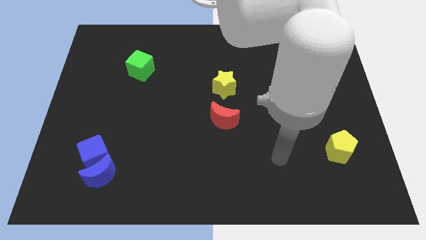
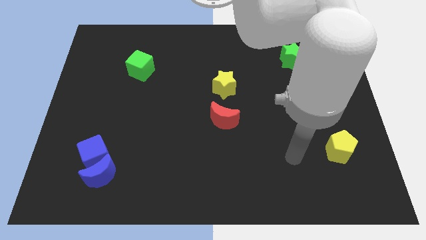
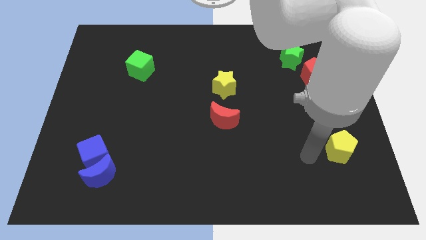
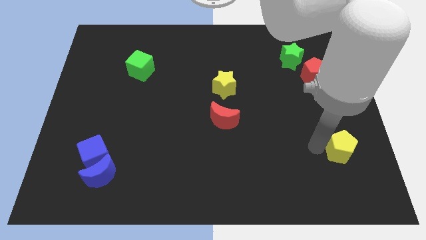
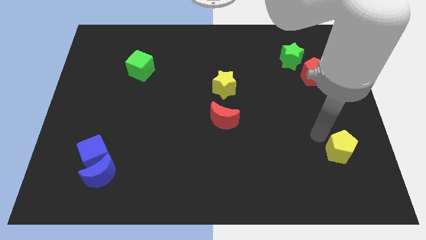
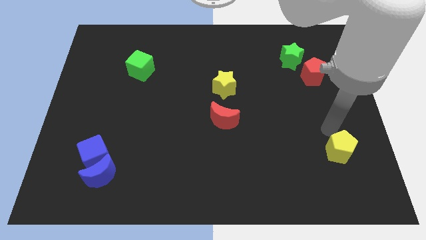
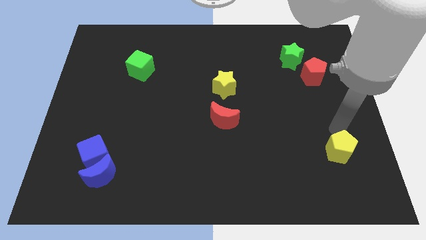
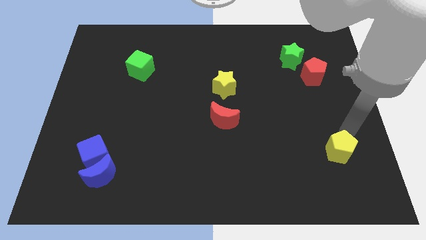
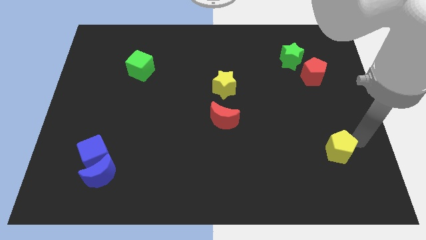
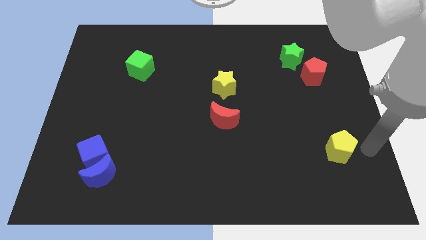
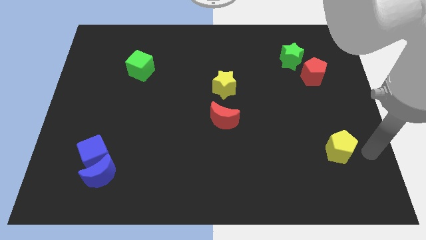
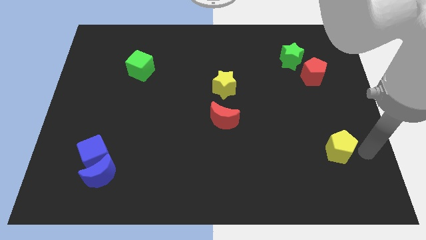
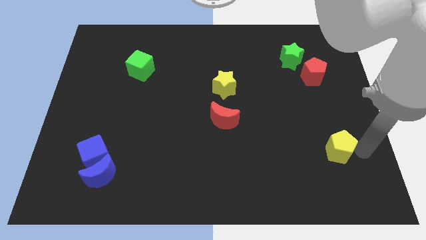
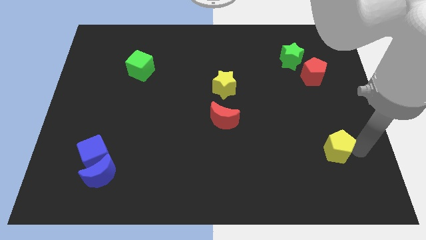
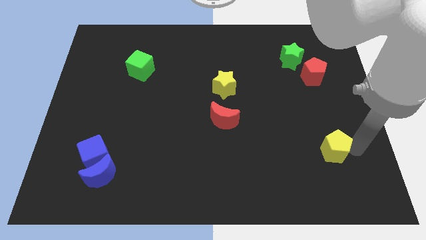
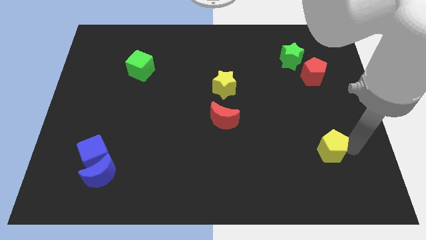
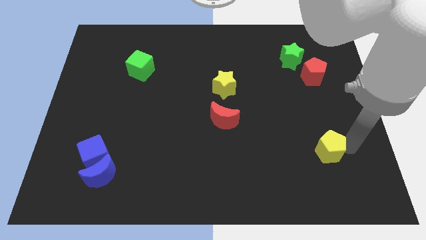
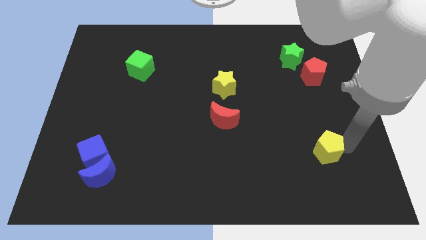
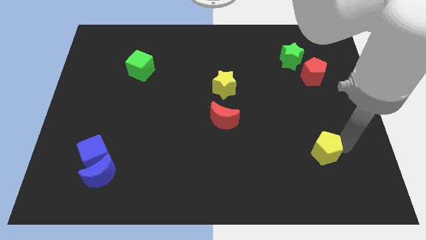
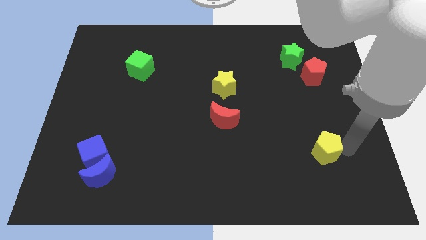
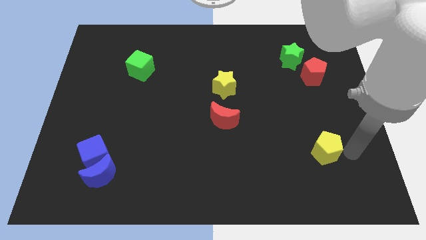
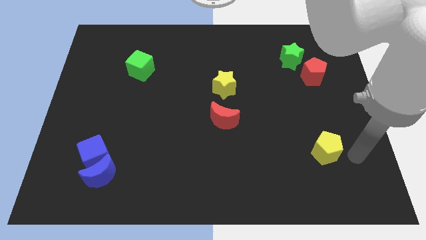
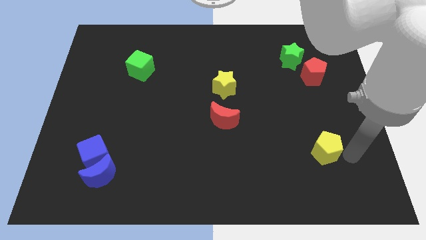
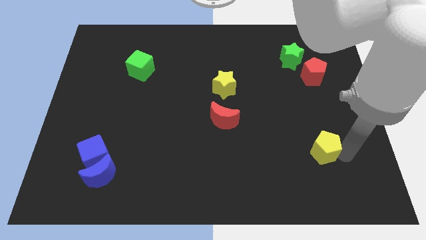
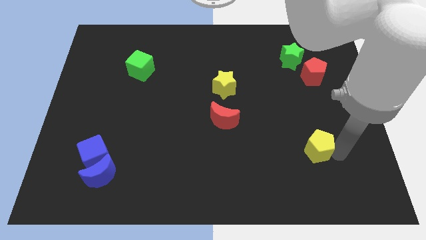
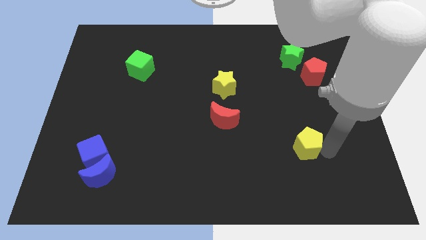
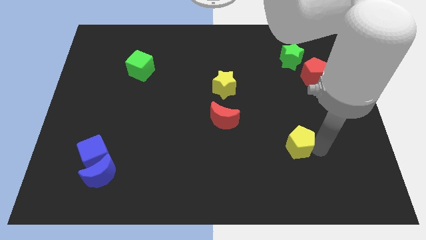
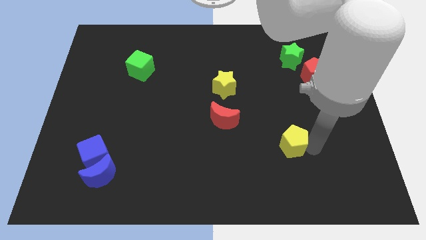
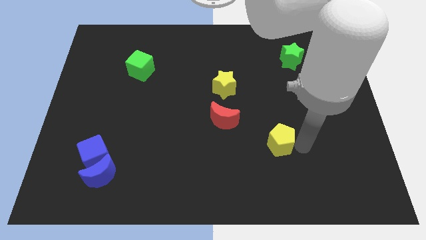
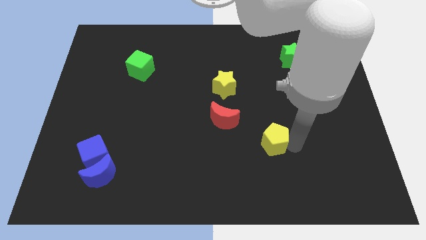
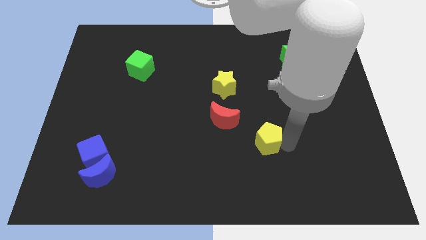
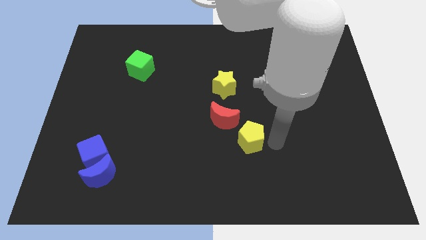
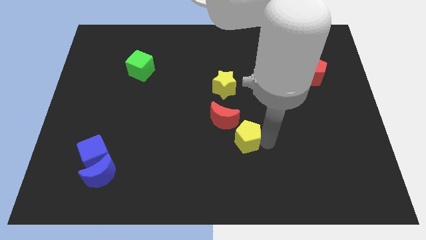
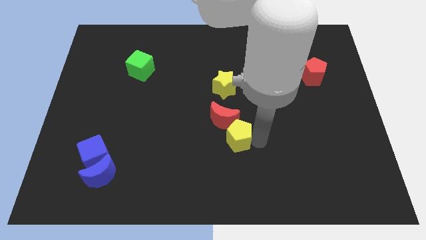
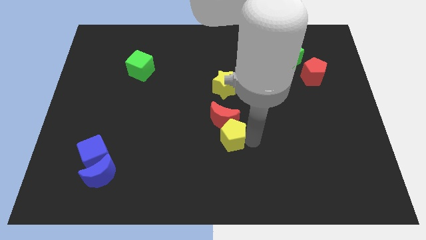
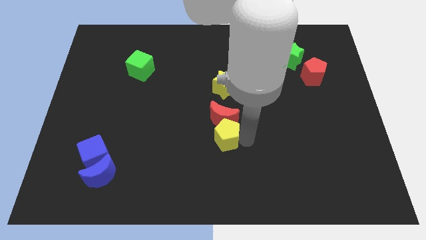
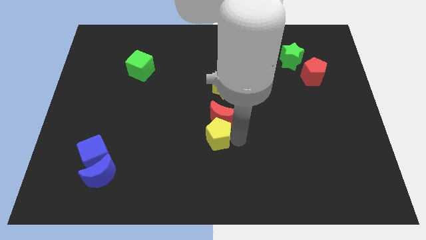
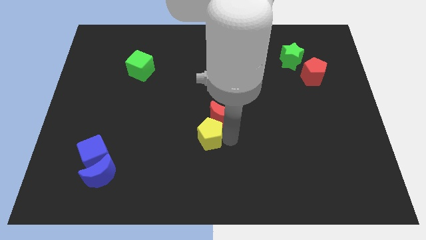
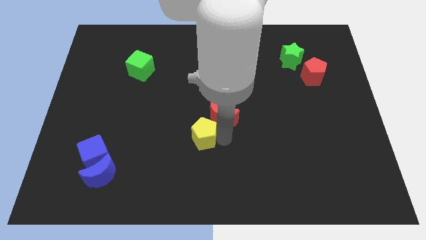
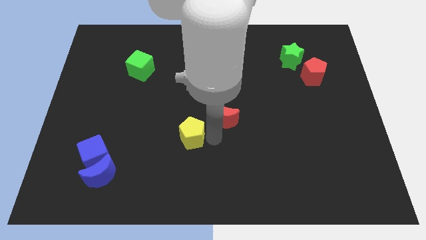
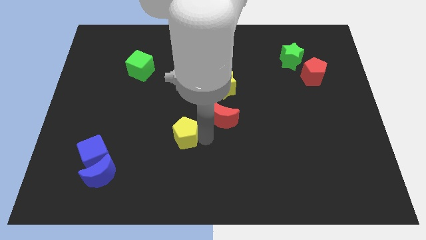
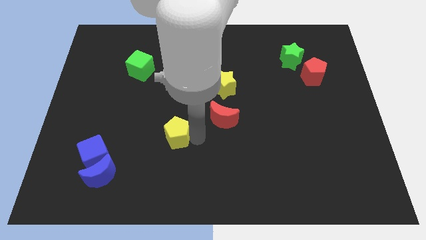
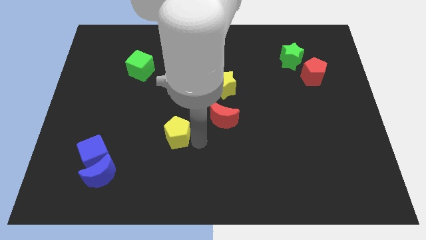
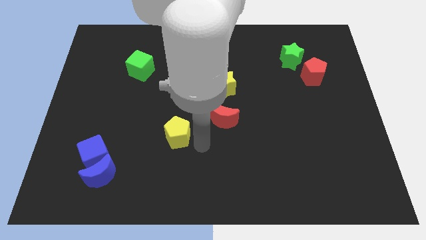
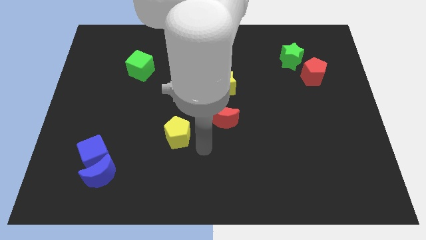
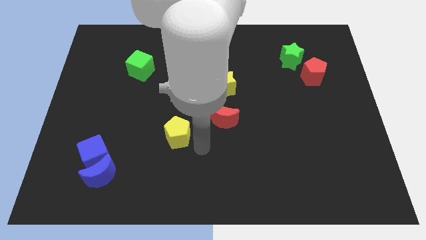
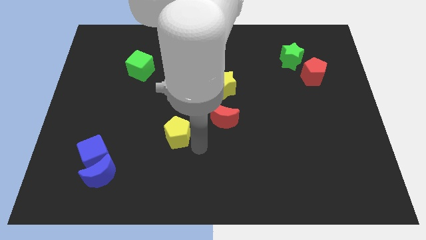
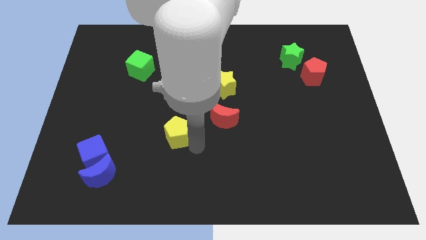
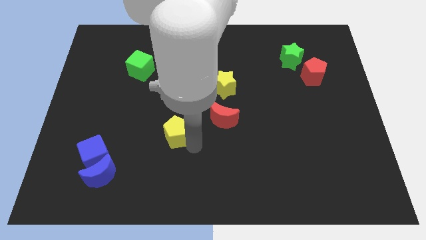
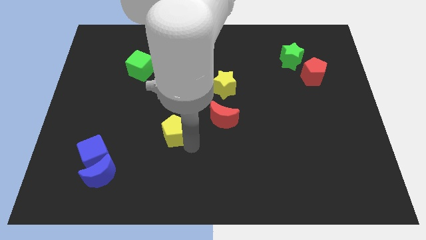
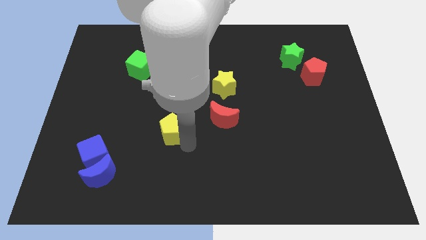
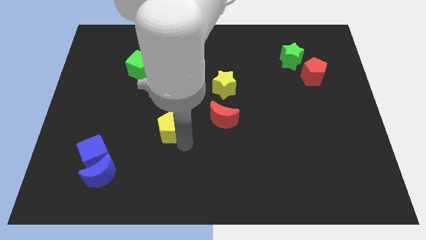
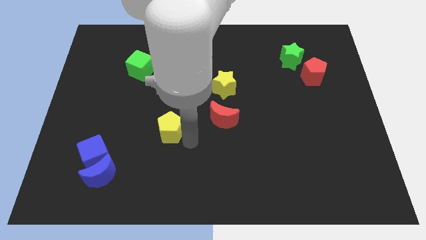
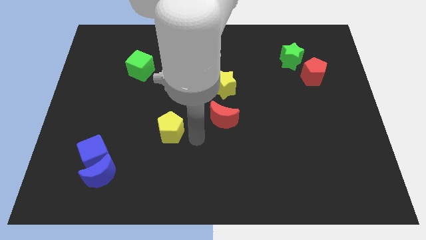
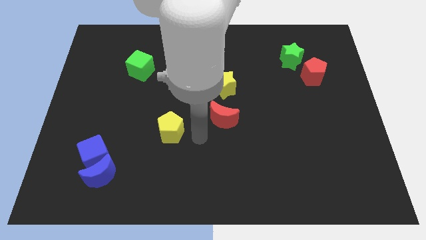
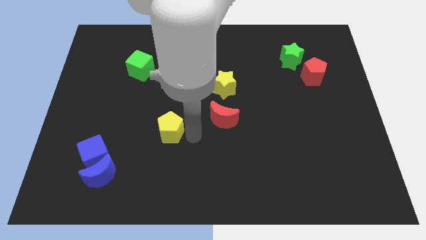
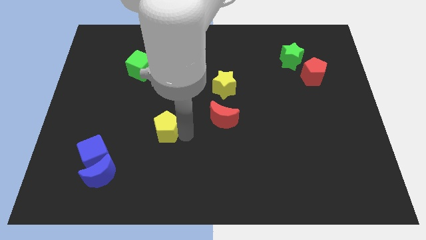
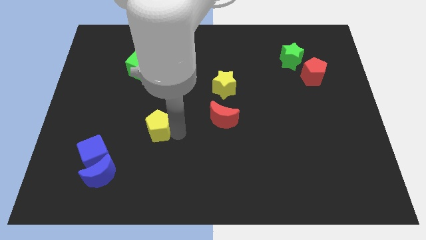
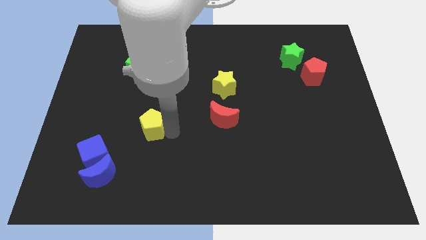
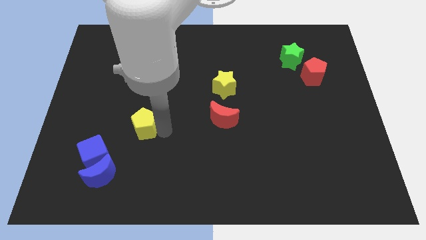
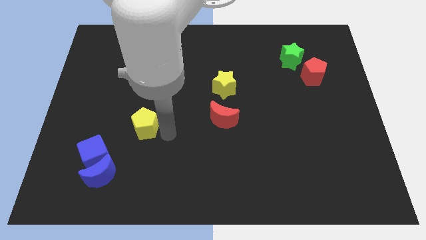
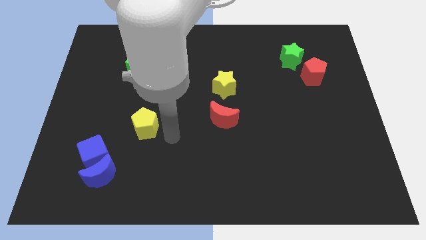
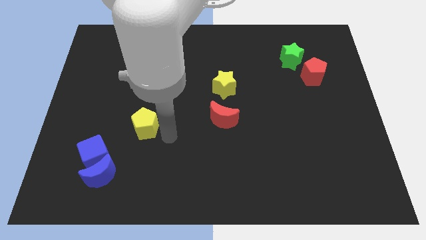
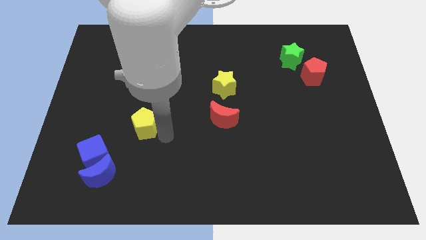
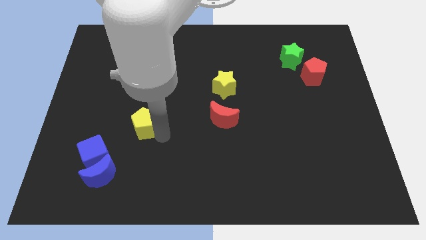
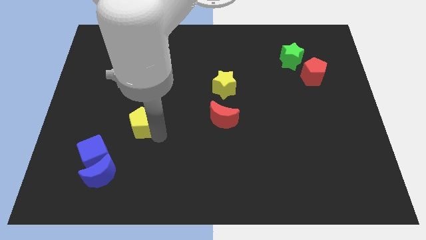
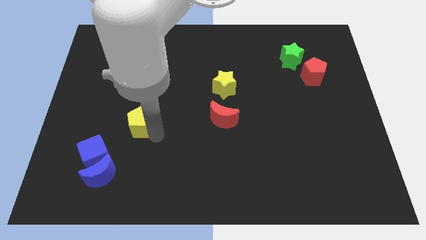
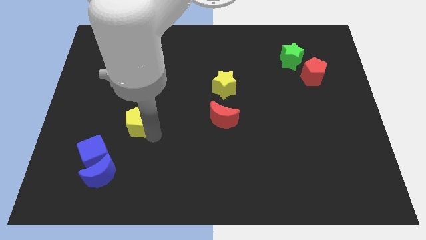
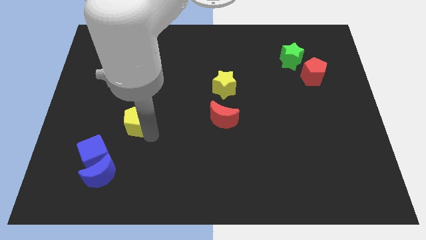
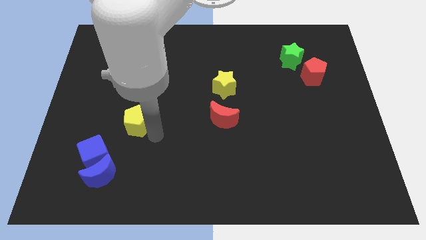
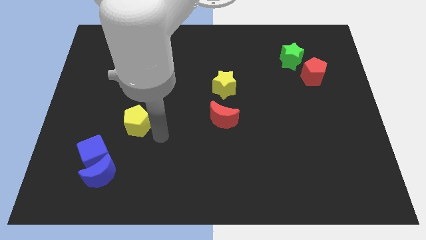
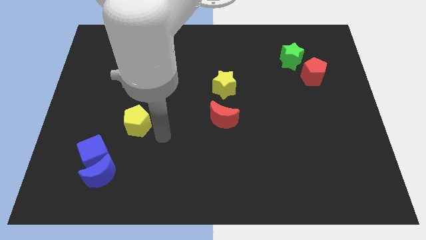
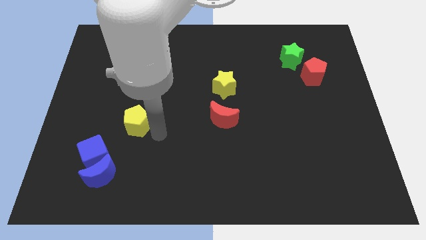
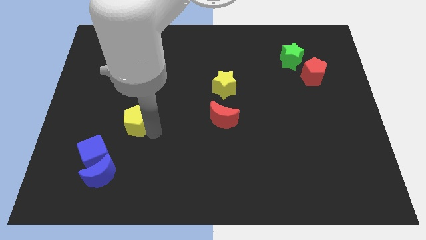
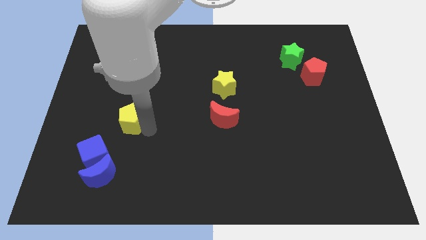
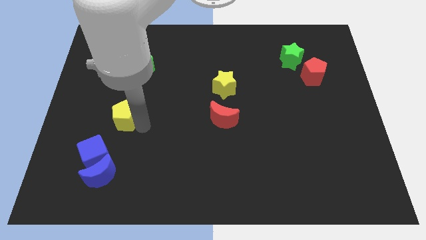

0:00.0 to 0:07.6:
put the yellow pentagon above the blue cube
